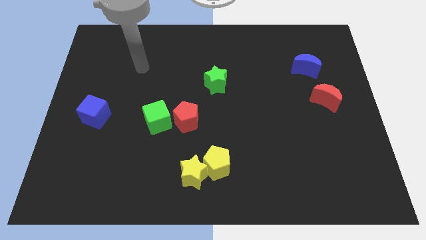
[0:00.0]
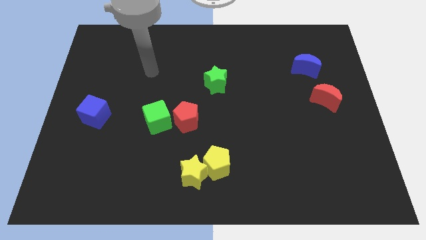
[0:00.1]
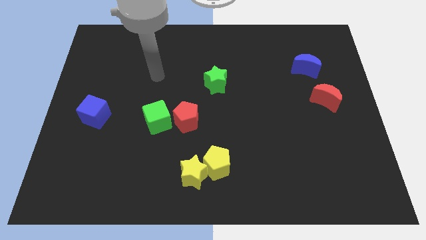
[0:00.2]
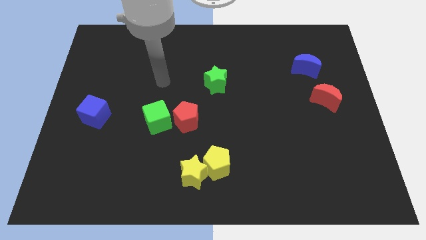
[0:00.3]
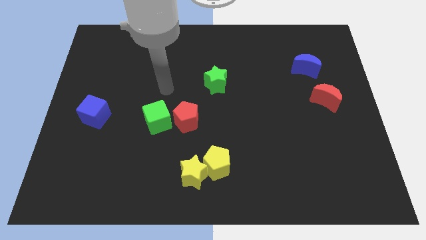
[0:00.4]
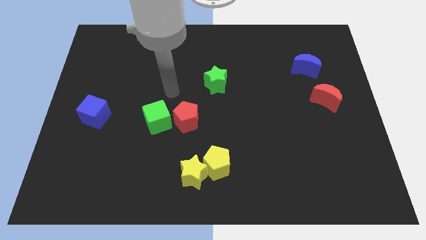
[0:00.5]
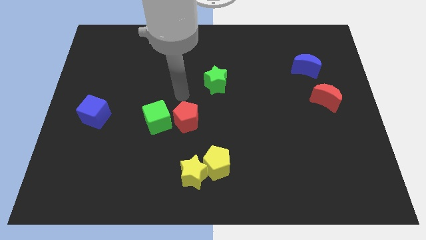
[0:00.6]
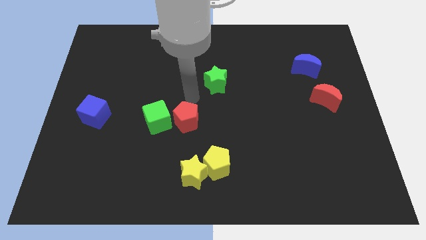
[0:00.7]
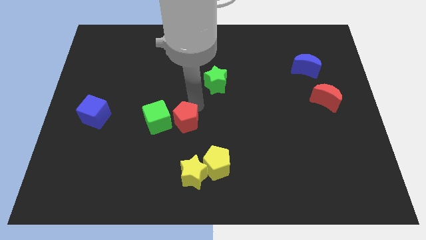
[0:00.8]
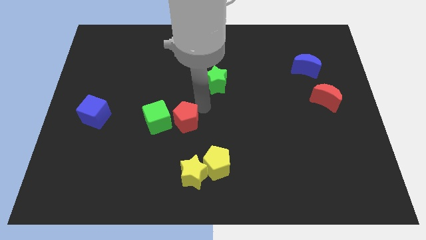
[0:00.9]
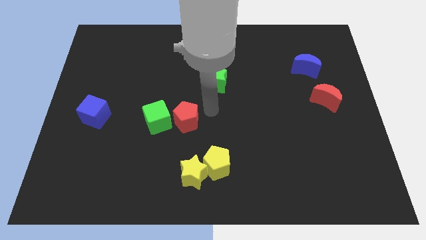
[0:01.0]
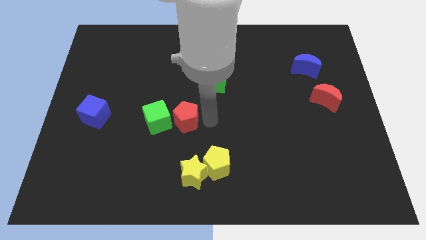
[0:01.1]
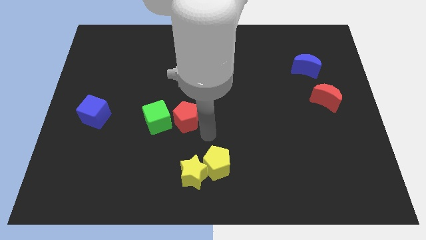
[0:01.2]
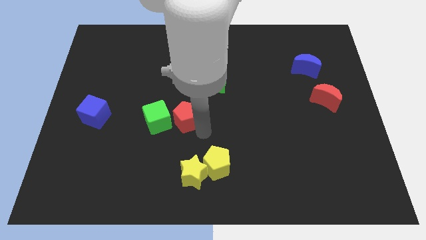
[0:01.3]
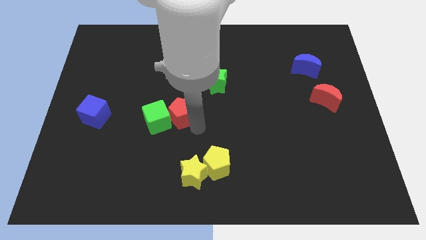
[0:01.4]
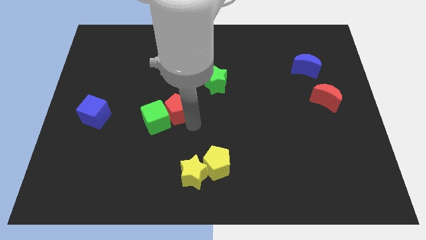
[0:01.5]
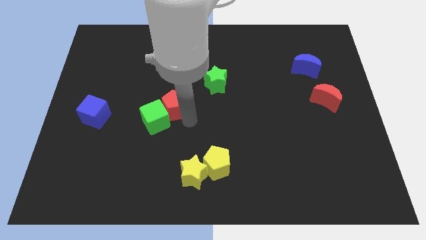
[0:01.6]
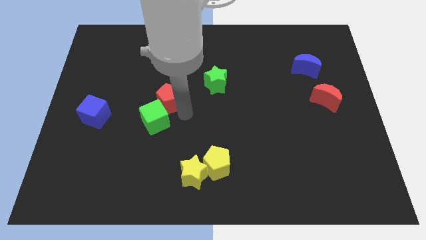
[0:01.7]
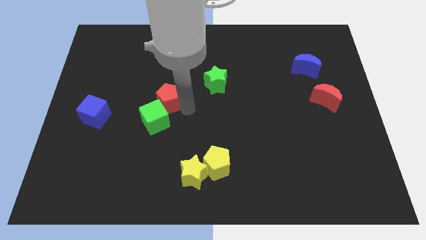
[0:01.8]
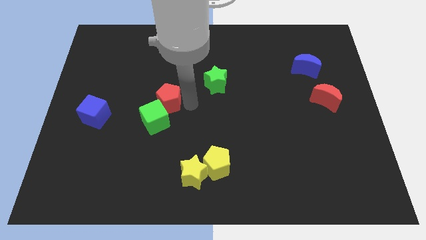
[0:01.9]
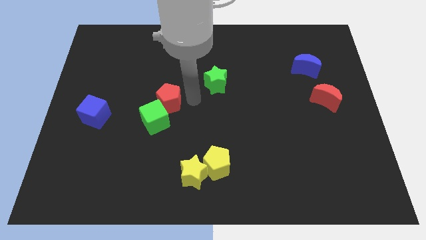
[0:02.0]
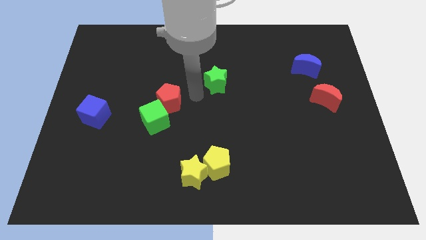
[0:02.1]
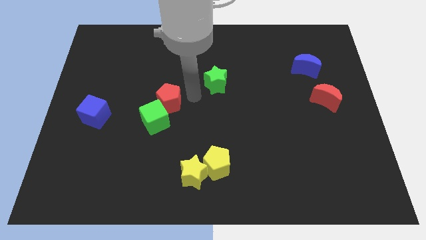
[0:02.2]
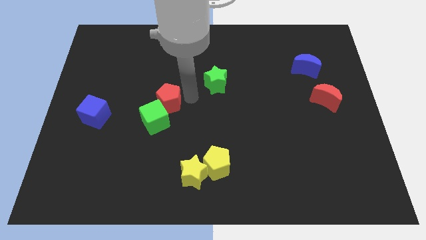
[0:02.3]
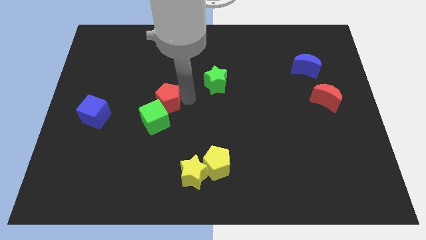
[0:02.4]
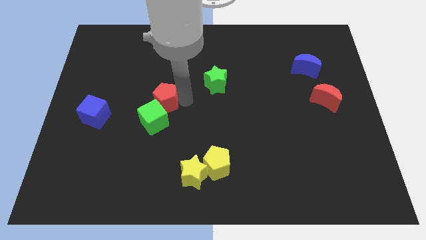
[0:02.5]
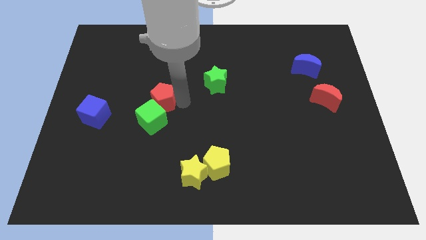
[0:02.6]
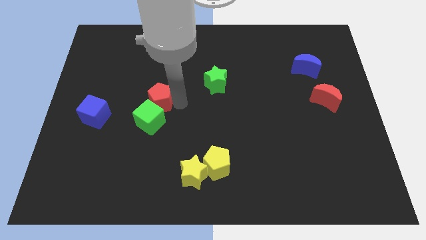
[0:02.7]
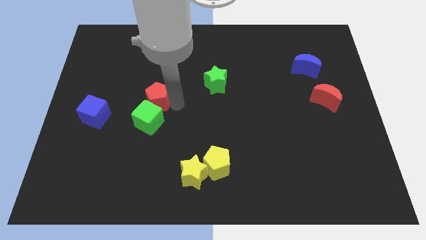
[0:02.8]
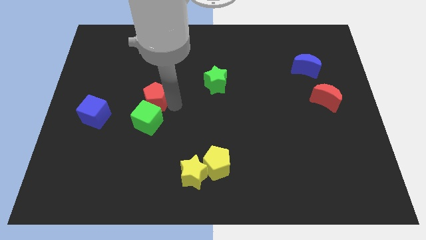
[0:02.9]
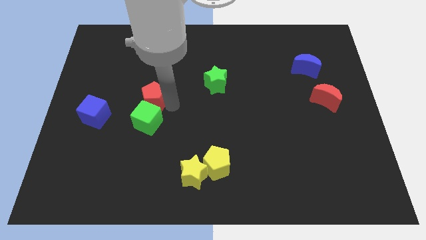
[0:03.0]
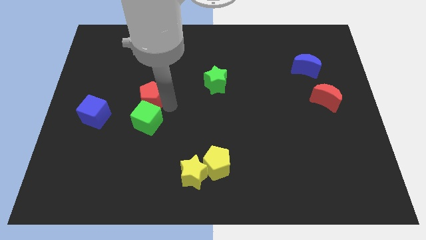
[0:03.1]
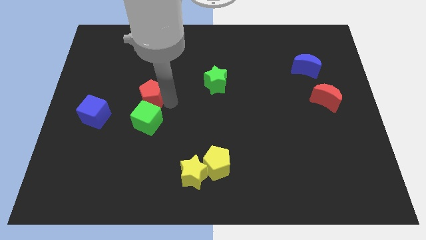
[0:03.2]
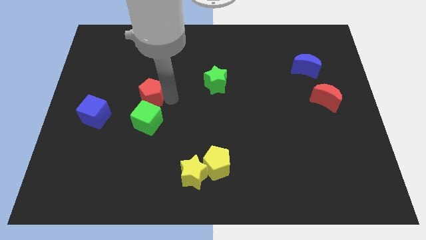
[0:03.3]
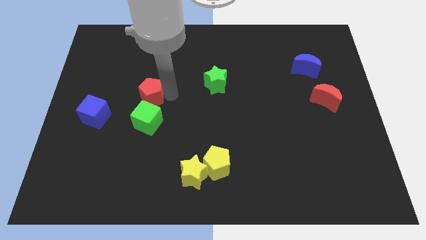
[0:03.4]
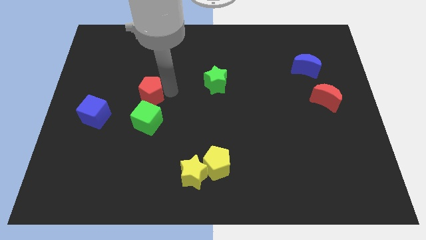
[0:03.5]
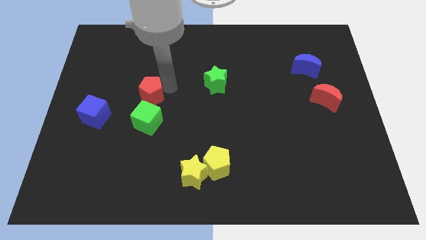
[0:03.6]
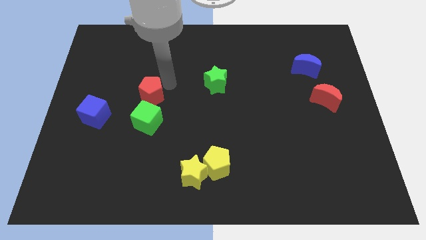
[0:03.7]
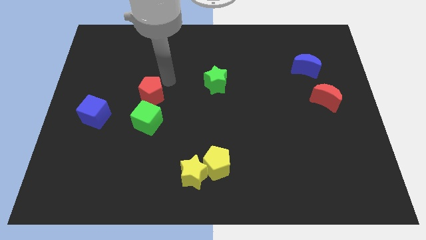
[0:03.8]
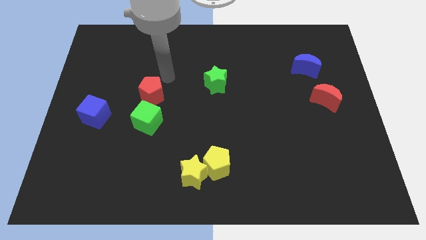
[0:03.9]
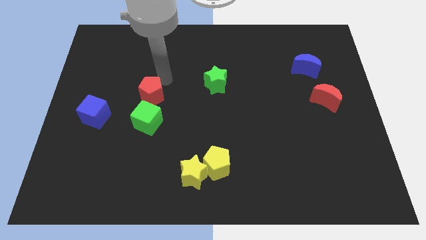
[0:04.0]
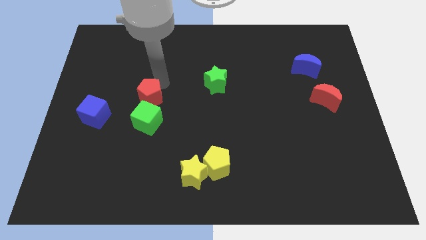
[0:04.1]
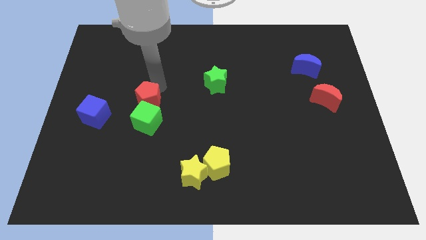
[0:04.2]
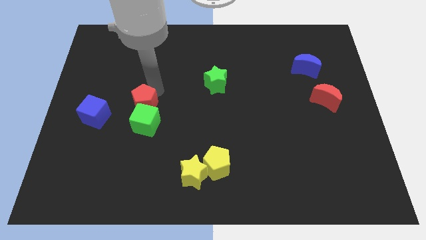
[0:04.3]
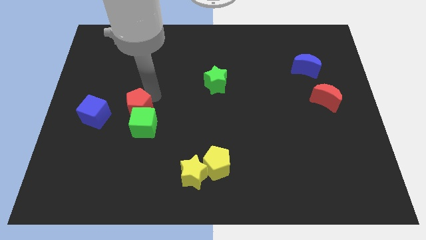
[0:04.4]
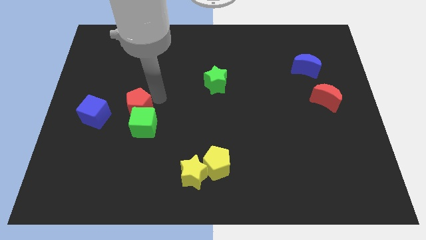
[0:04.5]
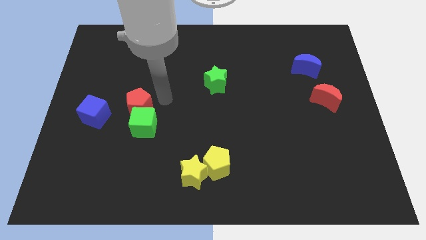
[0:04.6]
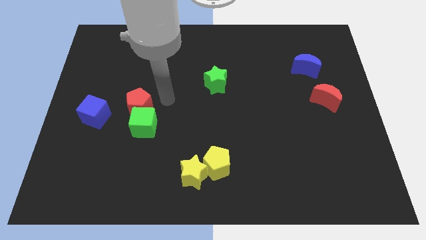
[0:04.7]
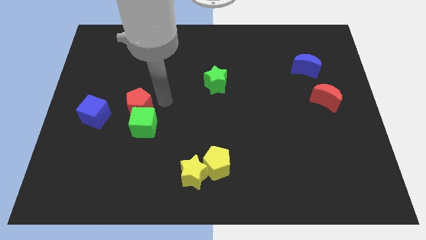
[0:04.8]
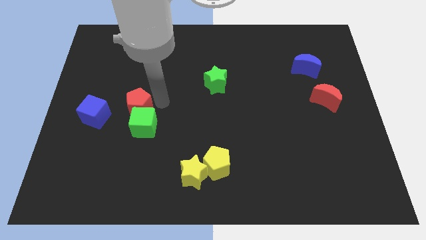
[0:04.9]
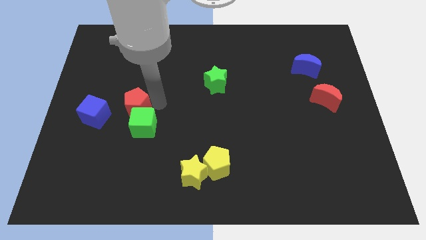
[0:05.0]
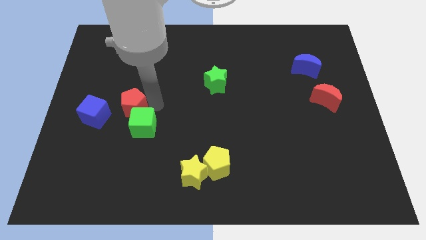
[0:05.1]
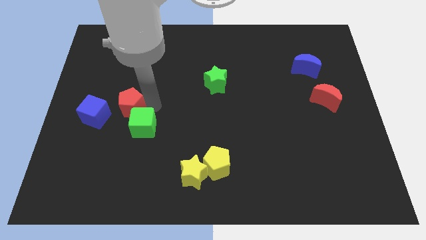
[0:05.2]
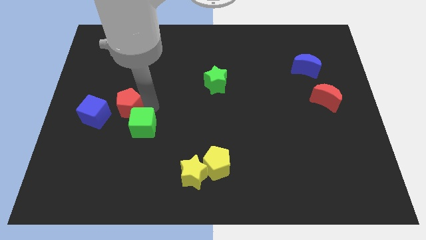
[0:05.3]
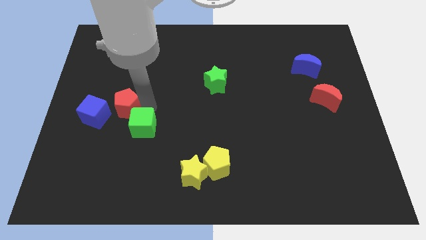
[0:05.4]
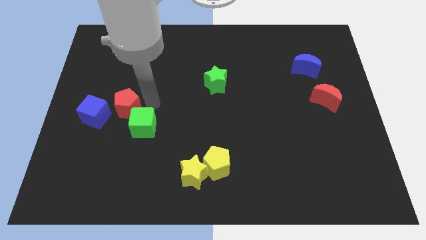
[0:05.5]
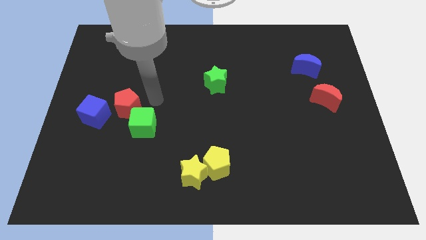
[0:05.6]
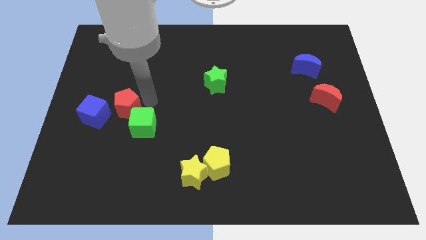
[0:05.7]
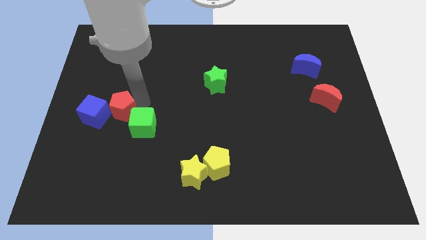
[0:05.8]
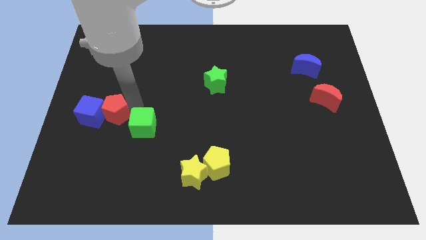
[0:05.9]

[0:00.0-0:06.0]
push the red pentagon to the blue cube

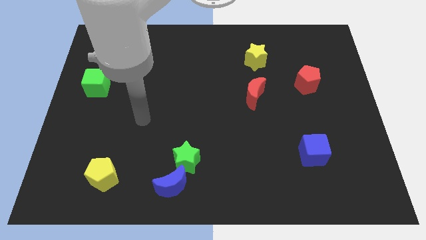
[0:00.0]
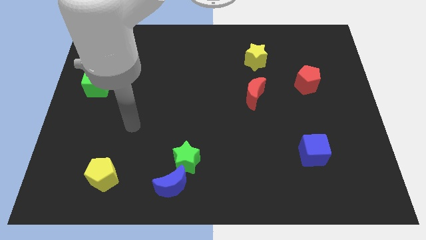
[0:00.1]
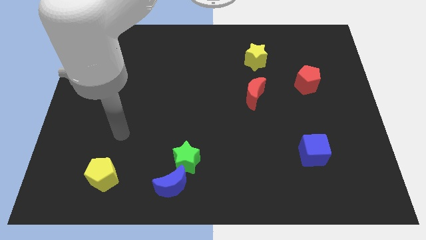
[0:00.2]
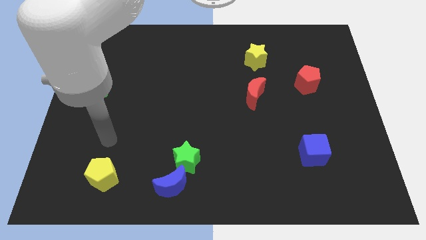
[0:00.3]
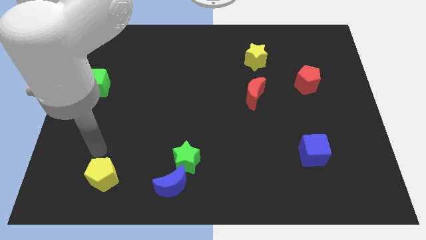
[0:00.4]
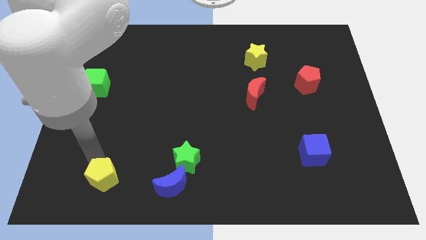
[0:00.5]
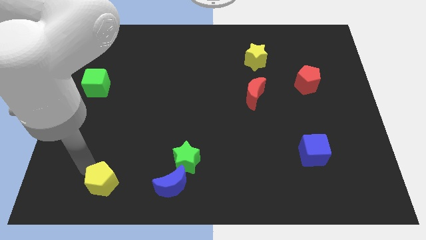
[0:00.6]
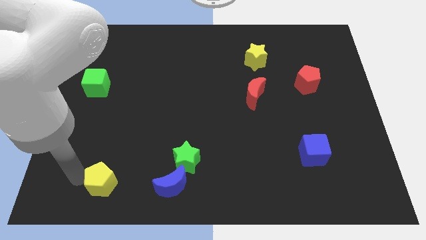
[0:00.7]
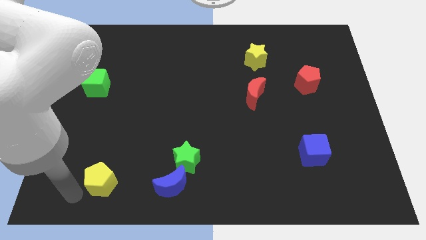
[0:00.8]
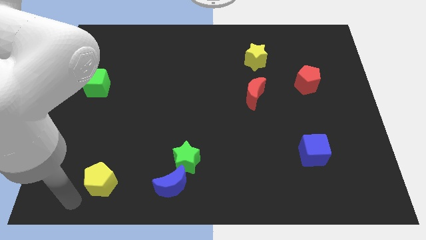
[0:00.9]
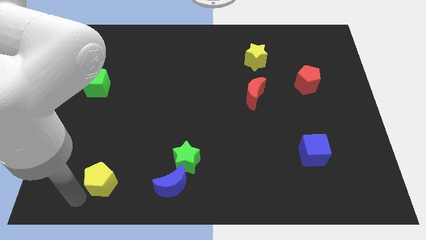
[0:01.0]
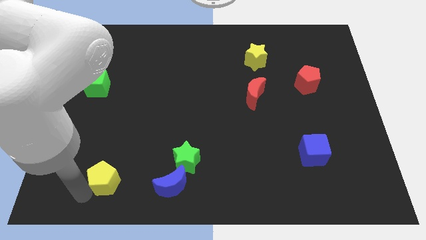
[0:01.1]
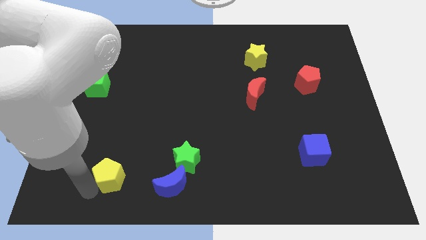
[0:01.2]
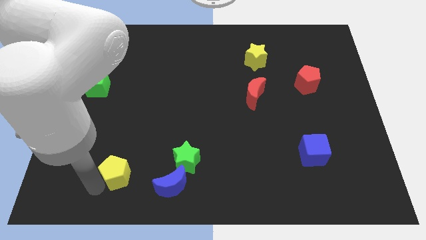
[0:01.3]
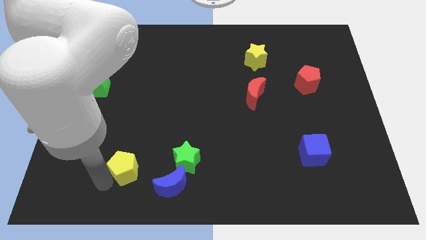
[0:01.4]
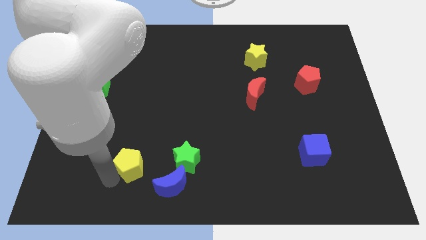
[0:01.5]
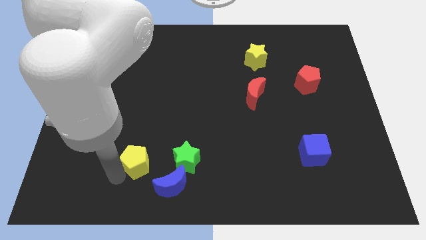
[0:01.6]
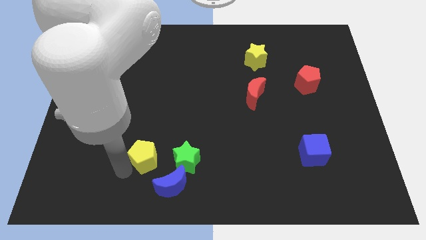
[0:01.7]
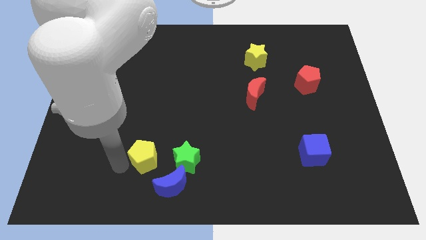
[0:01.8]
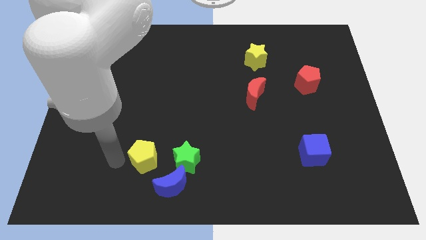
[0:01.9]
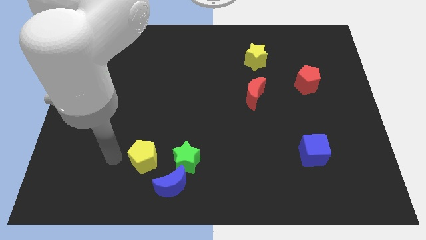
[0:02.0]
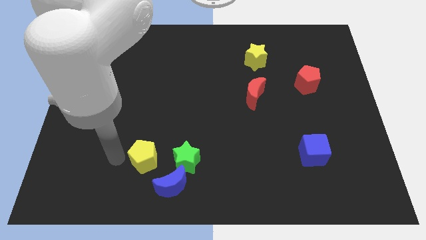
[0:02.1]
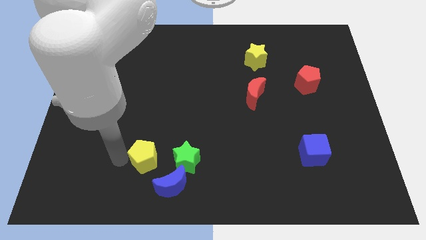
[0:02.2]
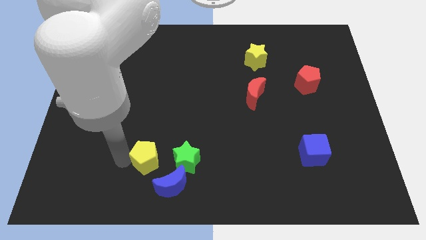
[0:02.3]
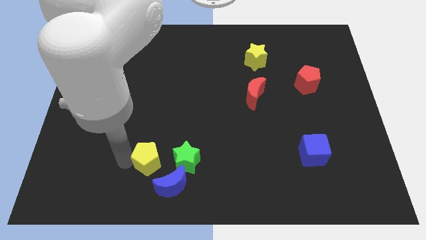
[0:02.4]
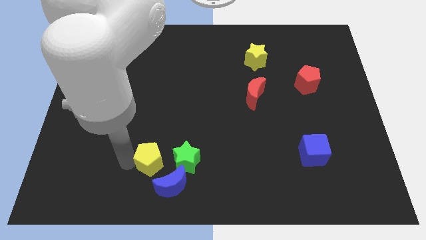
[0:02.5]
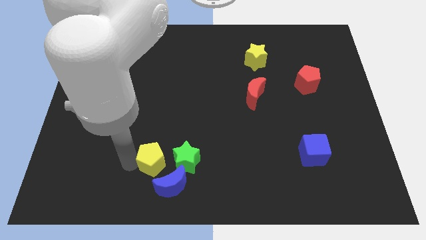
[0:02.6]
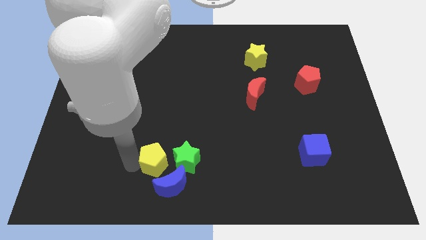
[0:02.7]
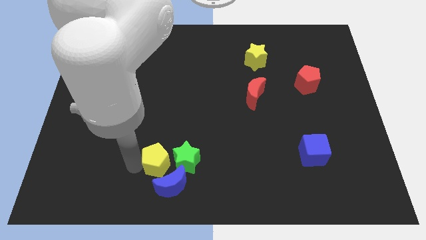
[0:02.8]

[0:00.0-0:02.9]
move the yellow pentagon next to the green star
